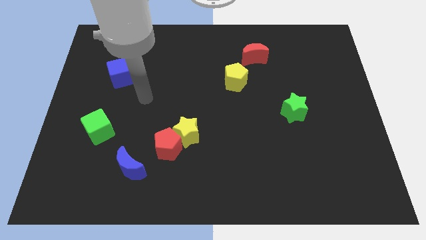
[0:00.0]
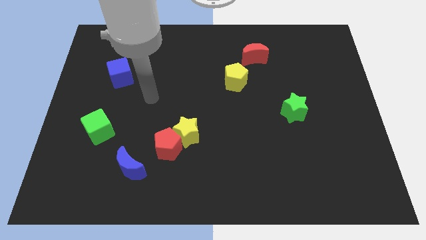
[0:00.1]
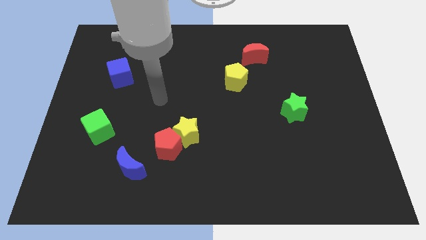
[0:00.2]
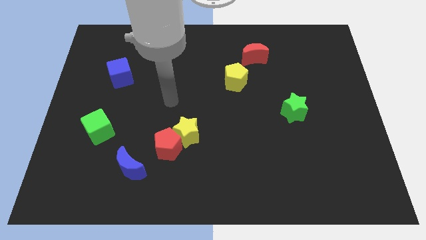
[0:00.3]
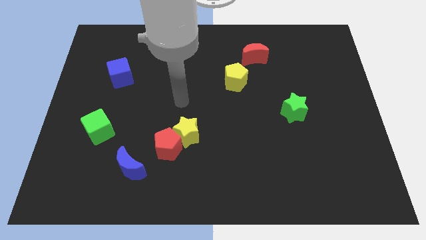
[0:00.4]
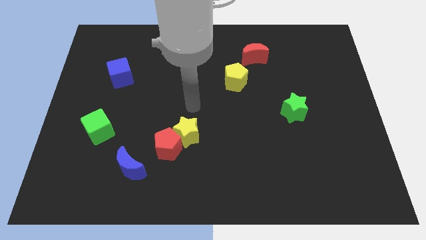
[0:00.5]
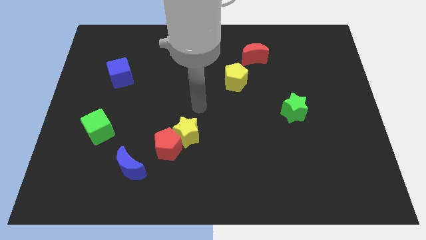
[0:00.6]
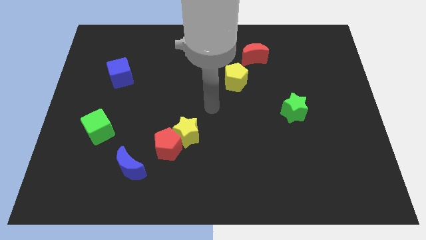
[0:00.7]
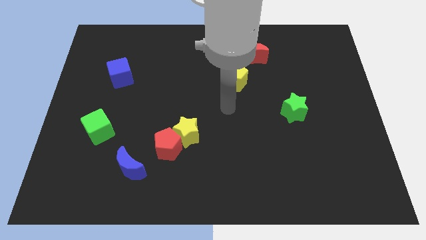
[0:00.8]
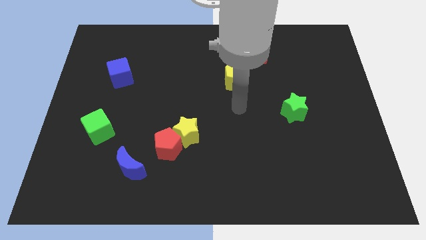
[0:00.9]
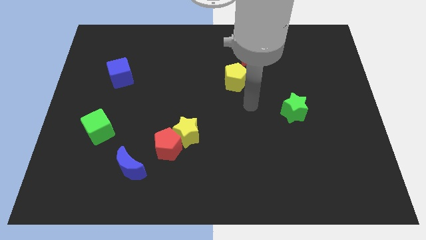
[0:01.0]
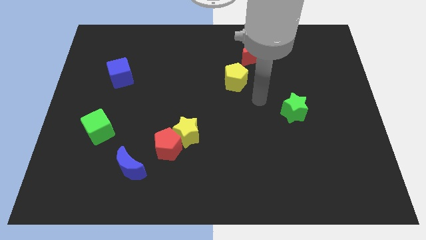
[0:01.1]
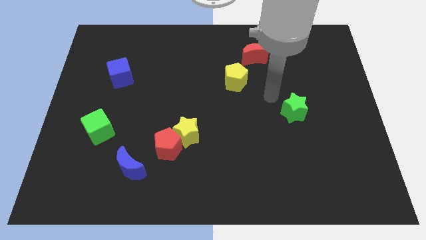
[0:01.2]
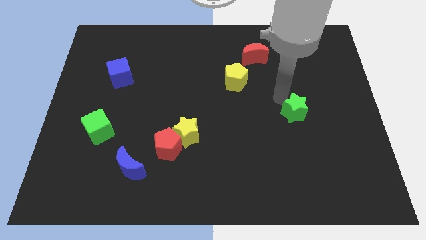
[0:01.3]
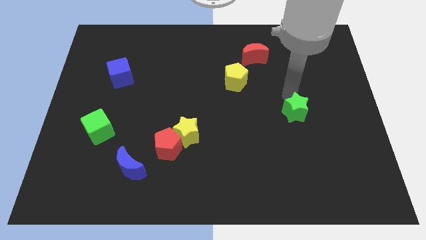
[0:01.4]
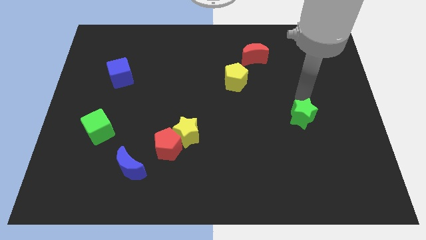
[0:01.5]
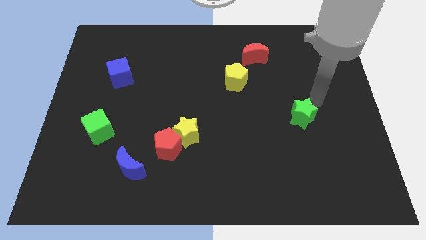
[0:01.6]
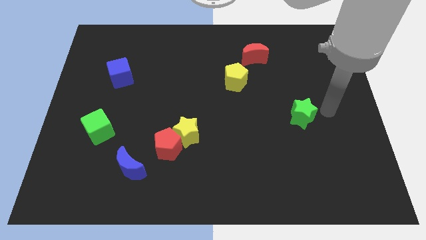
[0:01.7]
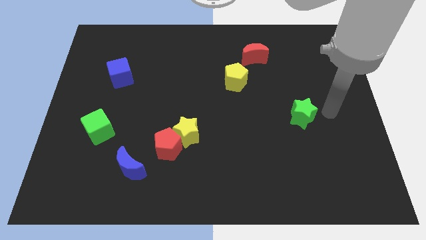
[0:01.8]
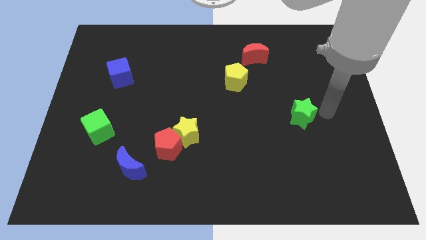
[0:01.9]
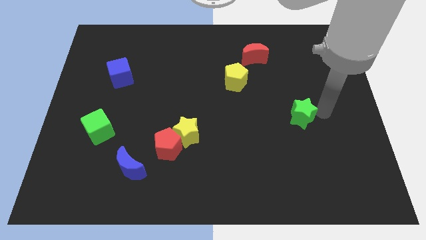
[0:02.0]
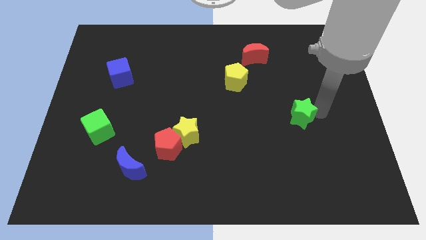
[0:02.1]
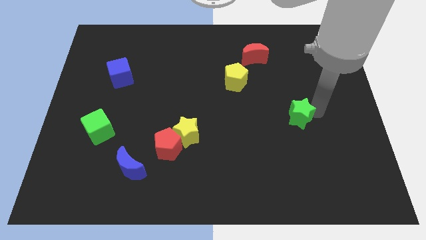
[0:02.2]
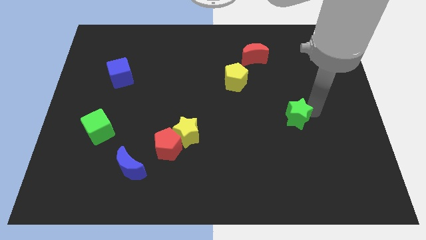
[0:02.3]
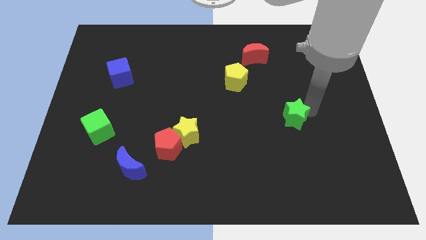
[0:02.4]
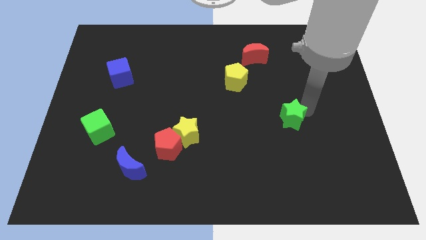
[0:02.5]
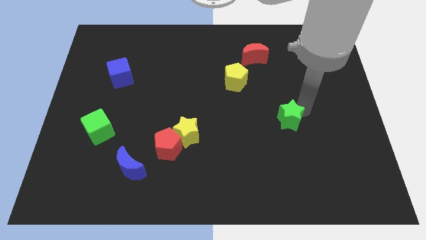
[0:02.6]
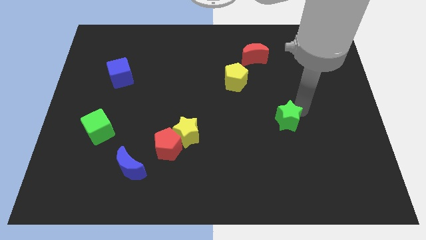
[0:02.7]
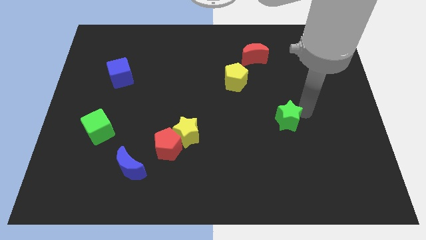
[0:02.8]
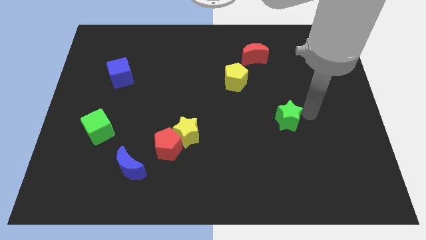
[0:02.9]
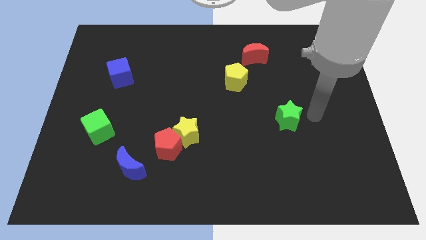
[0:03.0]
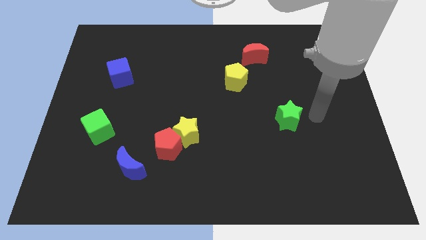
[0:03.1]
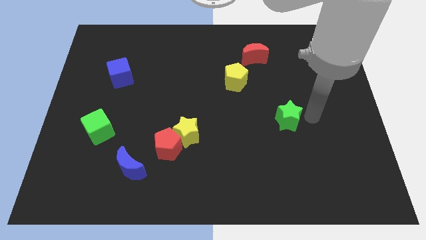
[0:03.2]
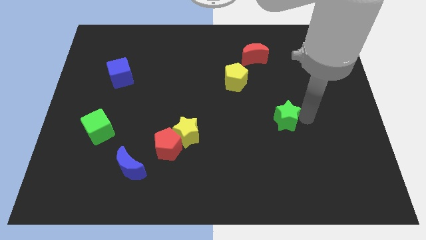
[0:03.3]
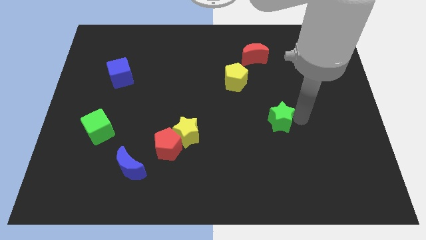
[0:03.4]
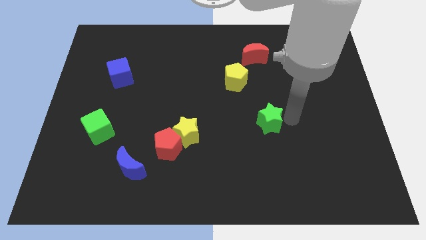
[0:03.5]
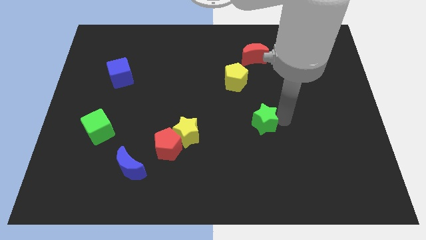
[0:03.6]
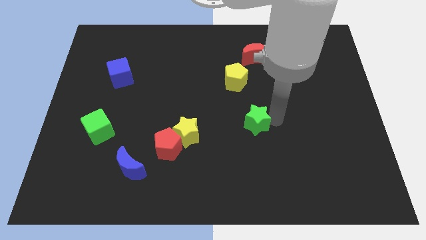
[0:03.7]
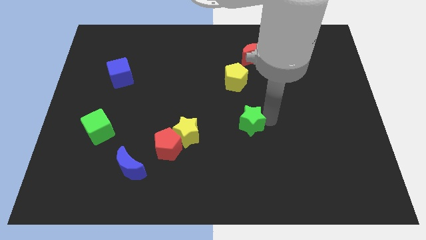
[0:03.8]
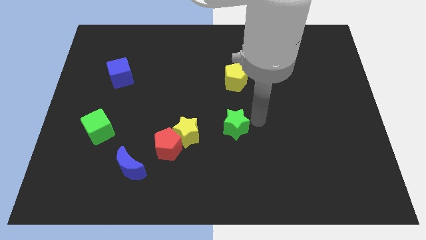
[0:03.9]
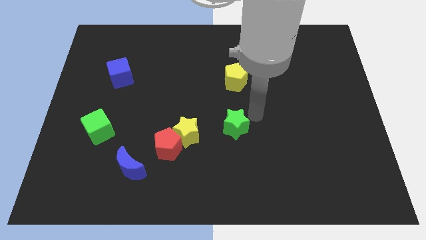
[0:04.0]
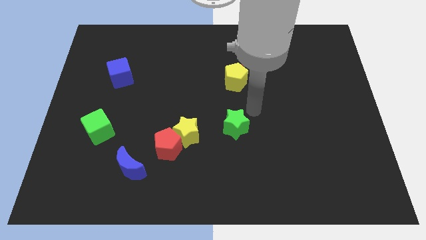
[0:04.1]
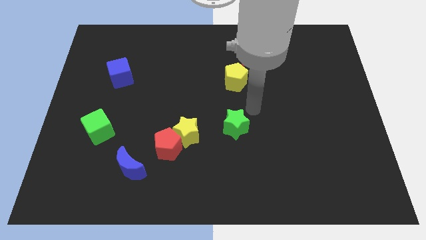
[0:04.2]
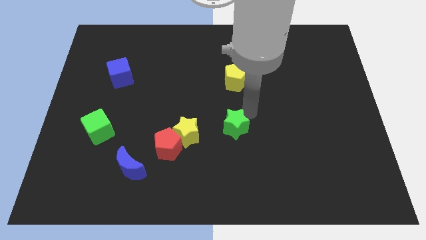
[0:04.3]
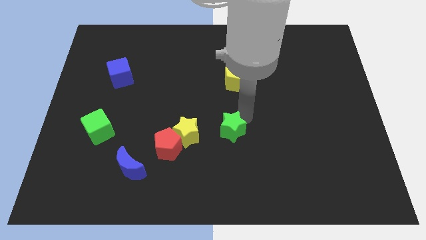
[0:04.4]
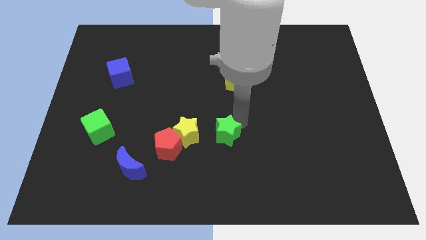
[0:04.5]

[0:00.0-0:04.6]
push the green star right of the red pentagon

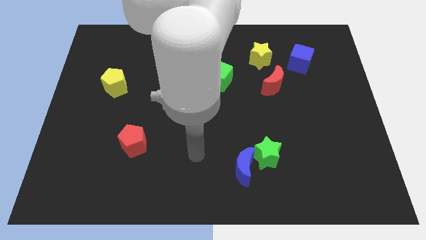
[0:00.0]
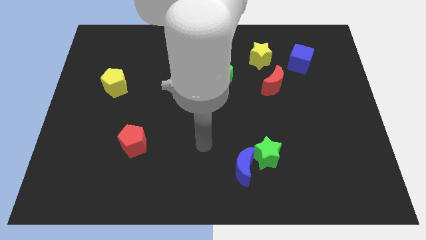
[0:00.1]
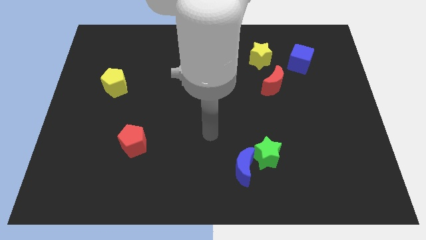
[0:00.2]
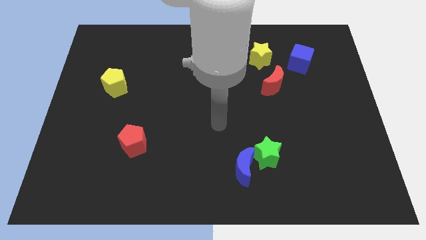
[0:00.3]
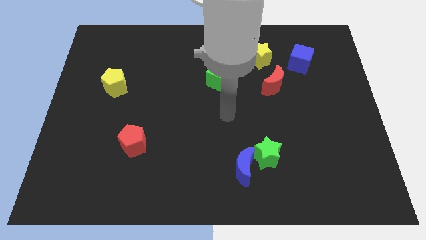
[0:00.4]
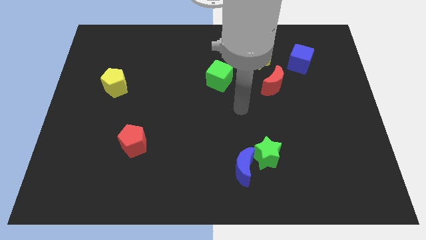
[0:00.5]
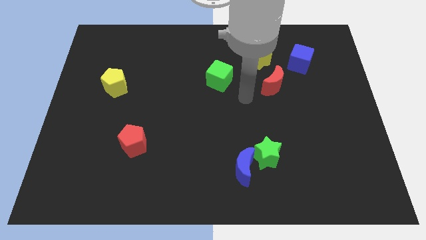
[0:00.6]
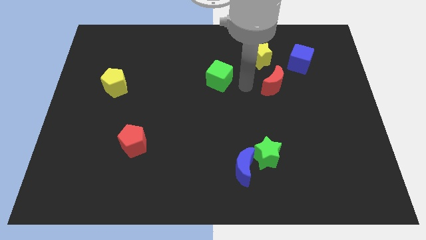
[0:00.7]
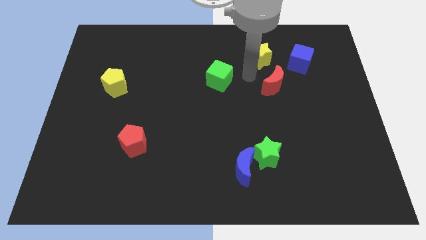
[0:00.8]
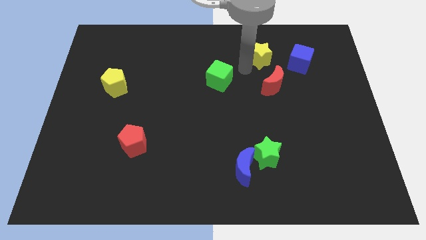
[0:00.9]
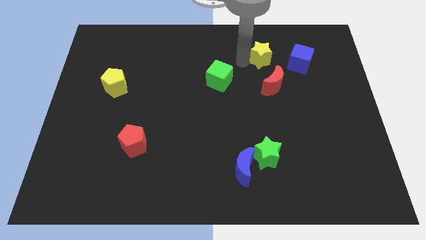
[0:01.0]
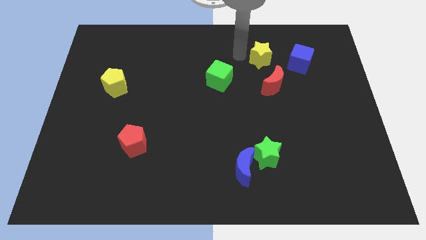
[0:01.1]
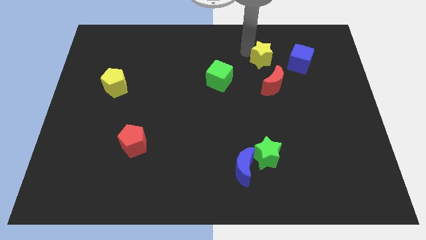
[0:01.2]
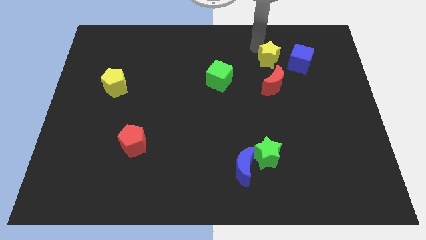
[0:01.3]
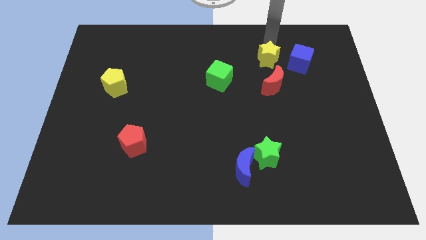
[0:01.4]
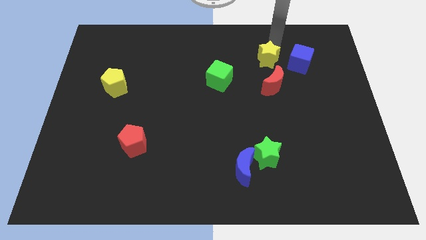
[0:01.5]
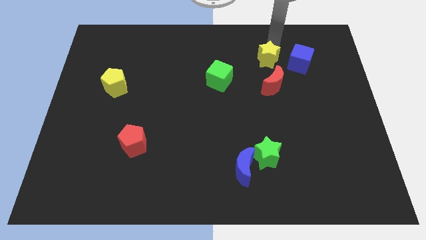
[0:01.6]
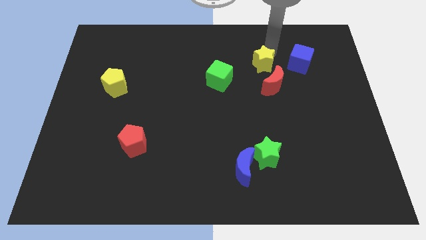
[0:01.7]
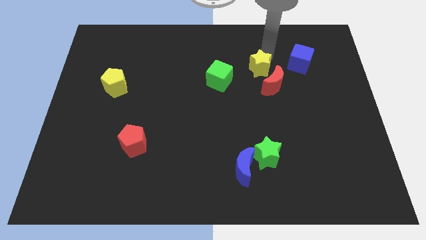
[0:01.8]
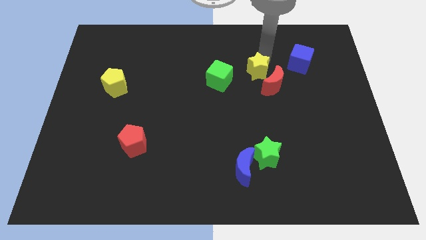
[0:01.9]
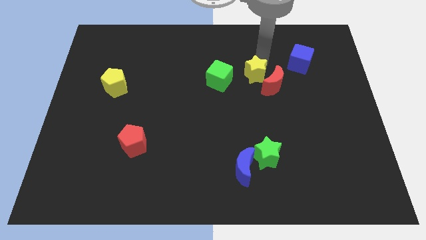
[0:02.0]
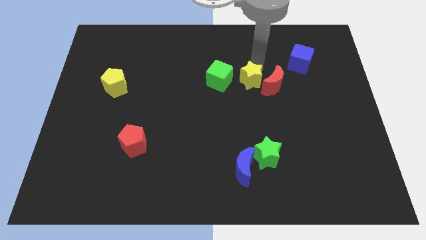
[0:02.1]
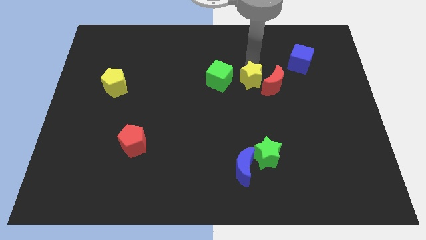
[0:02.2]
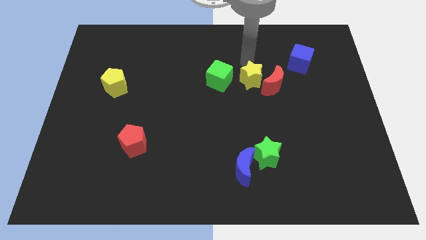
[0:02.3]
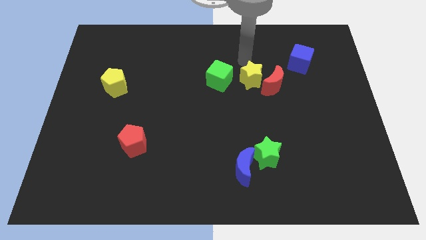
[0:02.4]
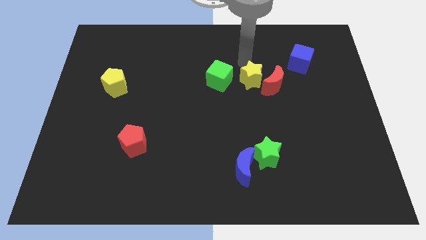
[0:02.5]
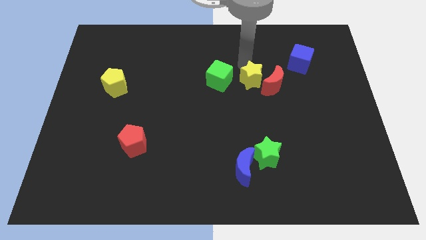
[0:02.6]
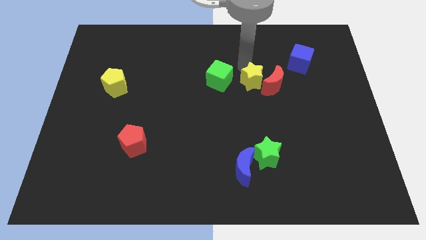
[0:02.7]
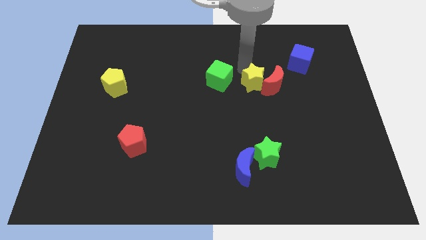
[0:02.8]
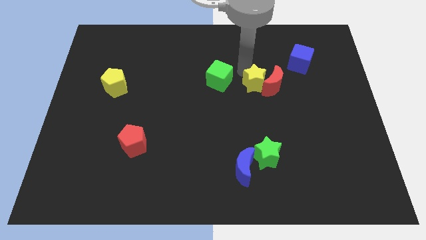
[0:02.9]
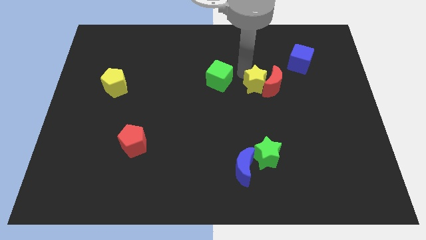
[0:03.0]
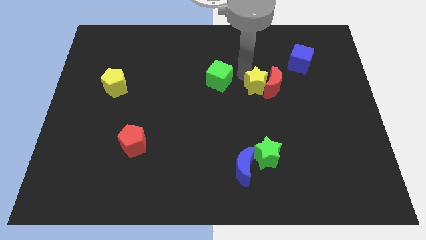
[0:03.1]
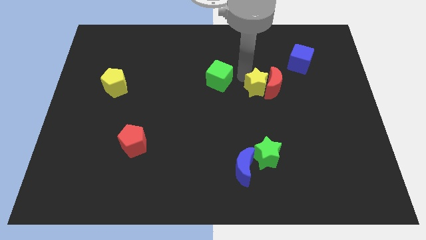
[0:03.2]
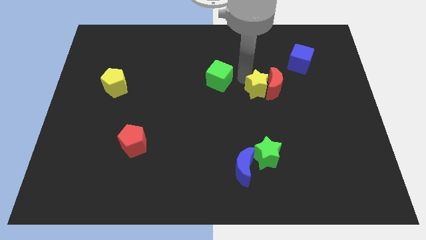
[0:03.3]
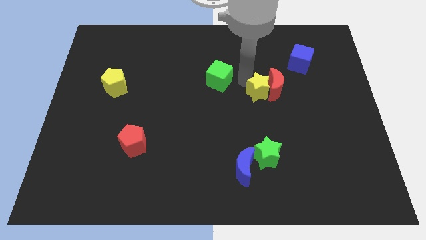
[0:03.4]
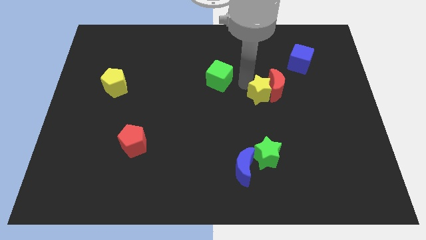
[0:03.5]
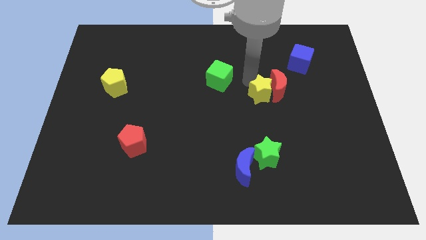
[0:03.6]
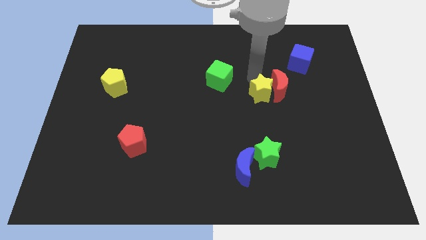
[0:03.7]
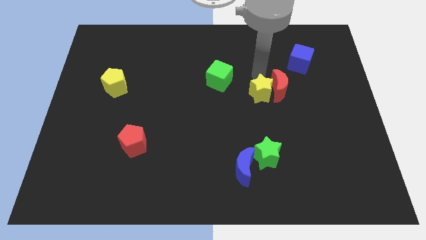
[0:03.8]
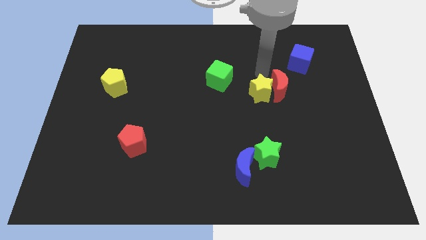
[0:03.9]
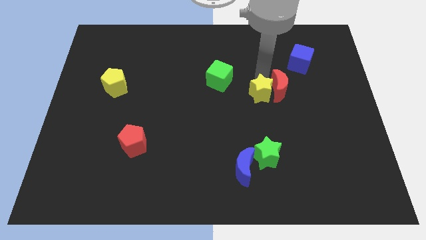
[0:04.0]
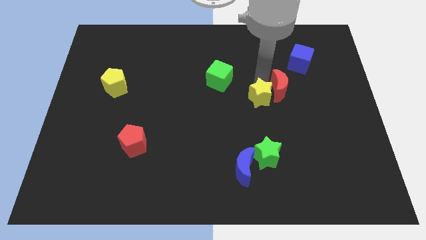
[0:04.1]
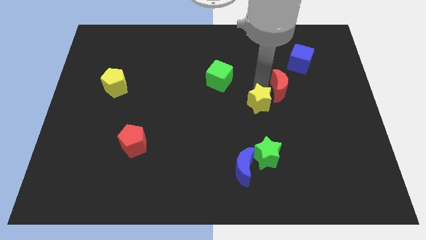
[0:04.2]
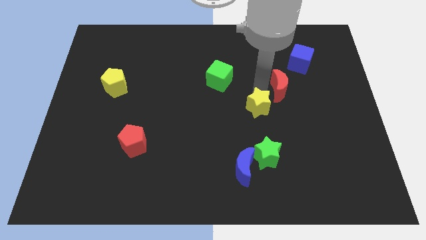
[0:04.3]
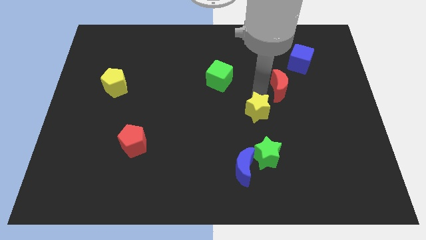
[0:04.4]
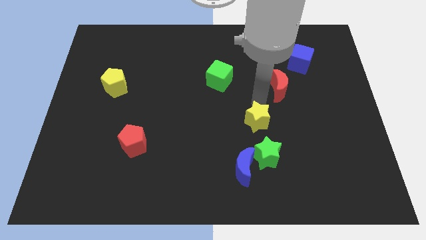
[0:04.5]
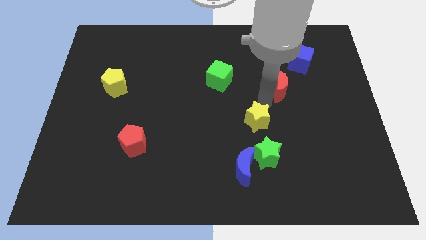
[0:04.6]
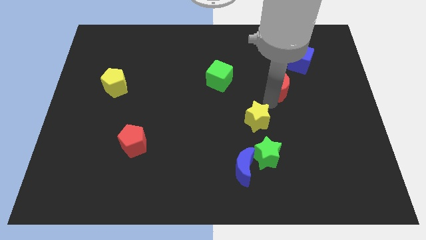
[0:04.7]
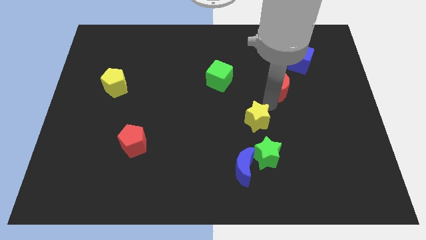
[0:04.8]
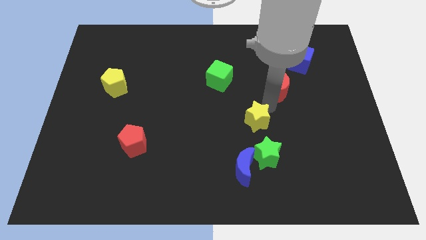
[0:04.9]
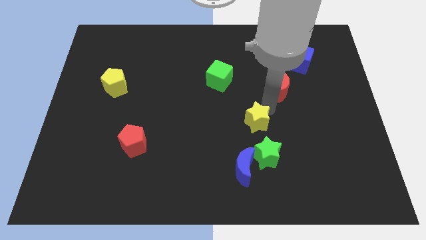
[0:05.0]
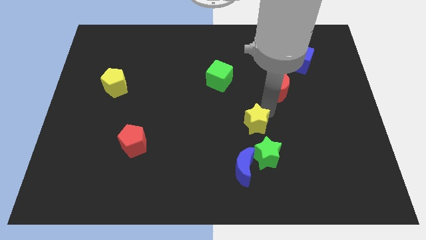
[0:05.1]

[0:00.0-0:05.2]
move the yellow star diagonally up and to the left of the green star
